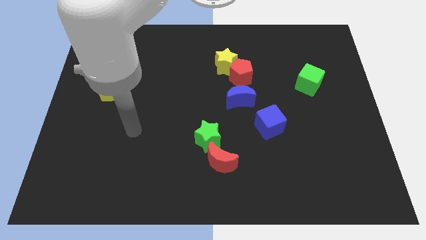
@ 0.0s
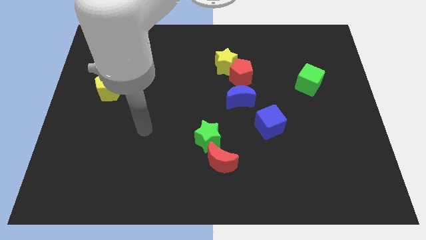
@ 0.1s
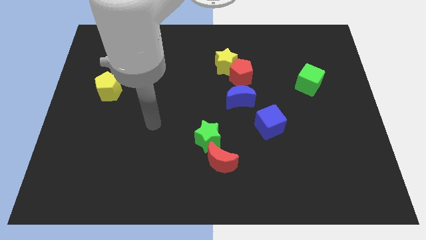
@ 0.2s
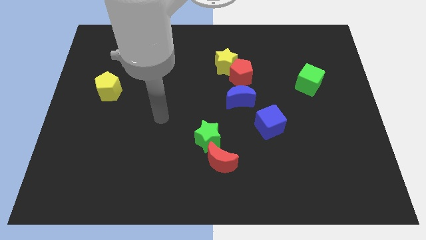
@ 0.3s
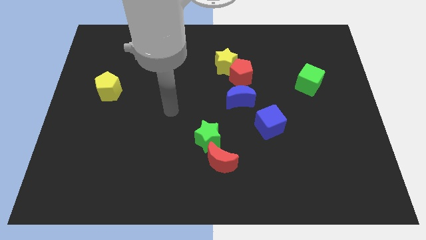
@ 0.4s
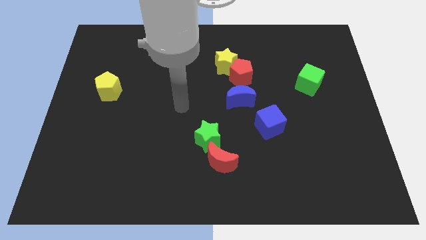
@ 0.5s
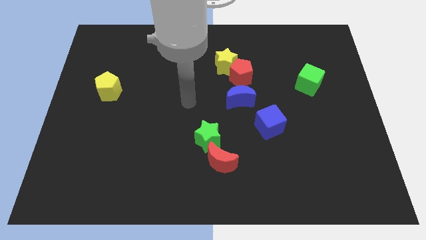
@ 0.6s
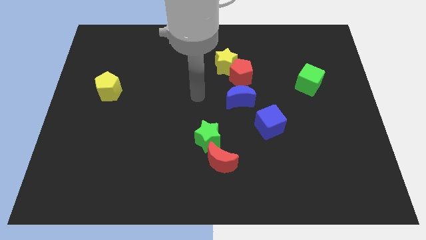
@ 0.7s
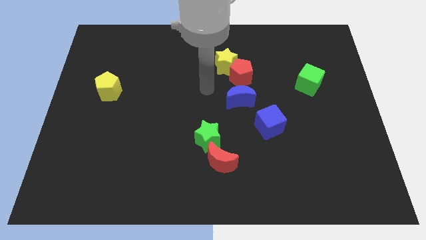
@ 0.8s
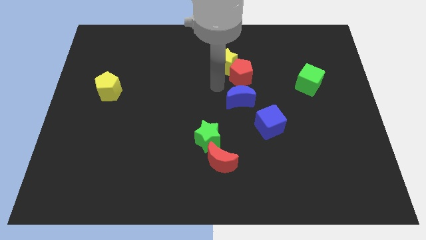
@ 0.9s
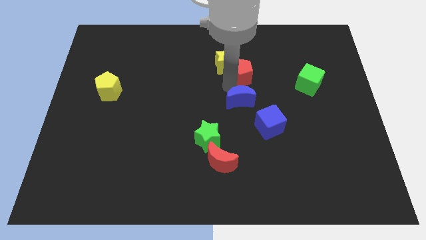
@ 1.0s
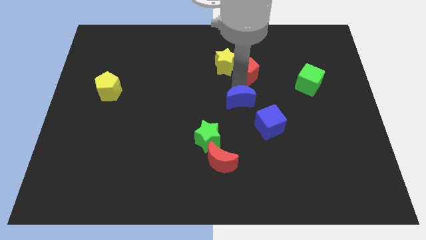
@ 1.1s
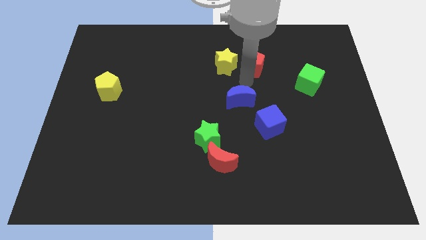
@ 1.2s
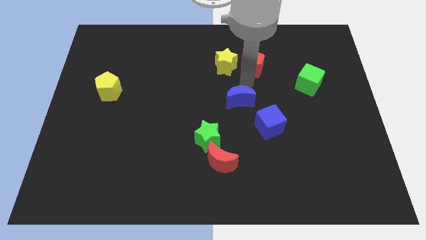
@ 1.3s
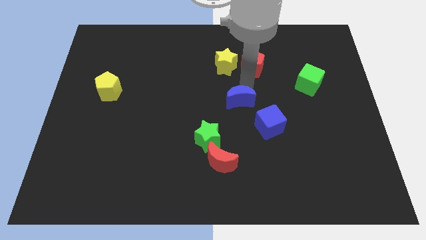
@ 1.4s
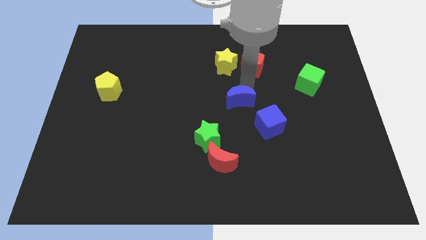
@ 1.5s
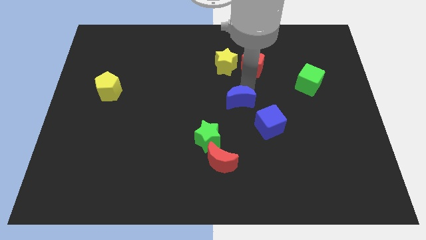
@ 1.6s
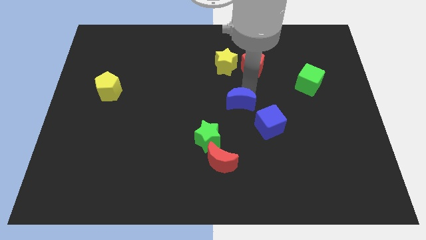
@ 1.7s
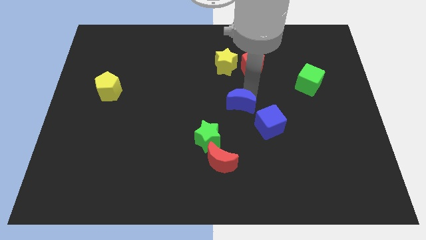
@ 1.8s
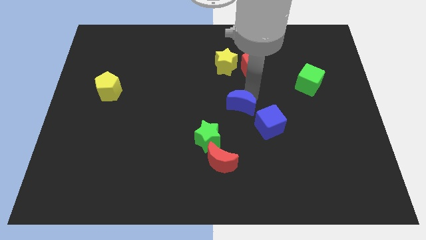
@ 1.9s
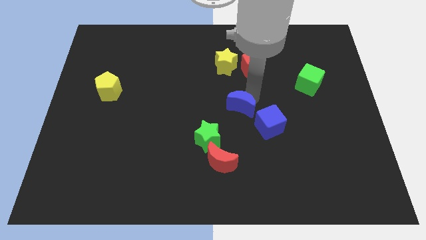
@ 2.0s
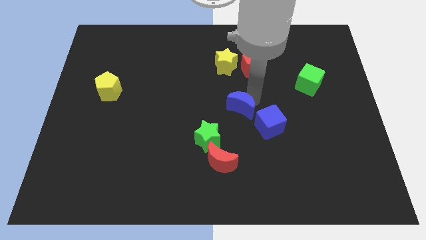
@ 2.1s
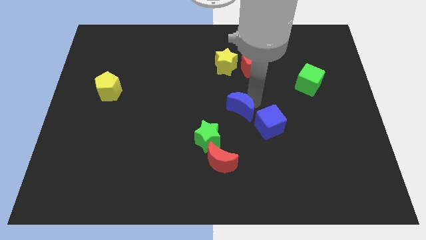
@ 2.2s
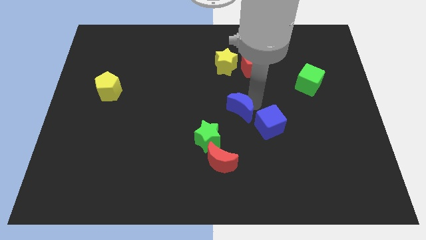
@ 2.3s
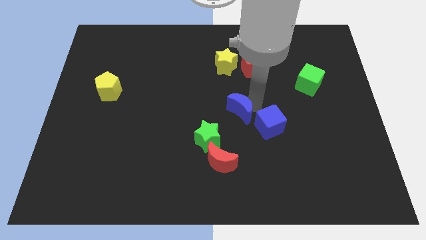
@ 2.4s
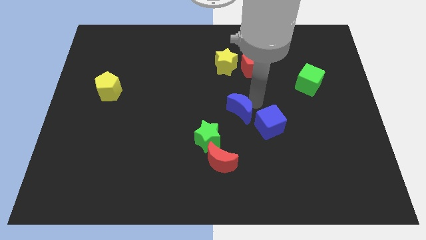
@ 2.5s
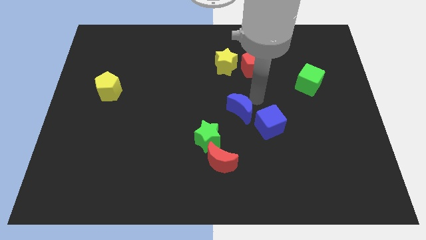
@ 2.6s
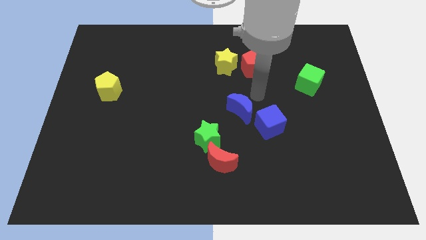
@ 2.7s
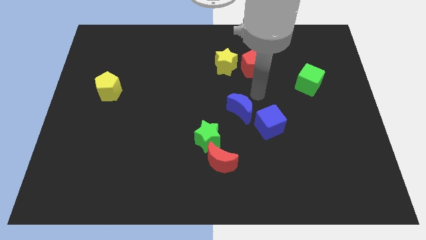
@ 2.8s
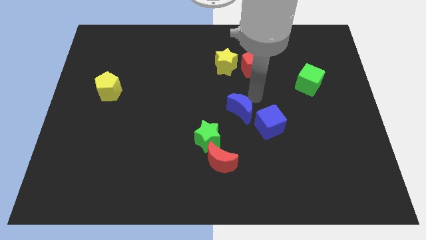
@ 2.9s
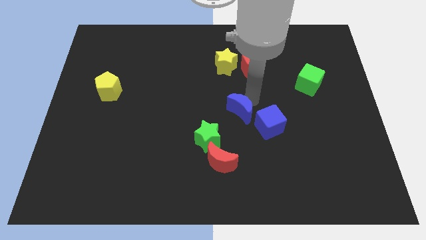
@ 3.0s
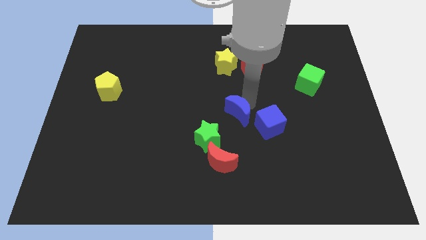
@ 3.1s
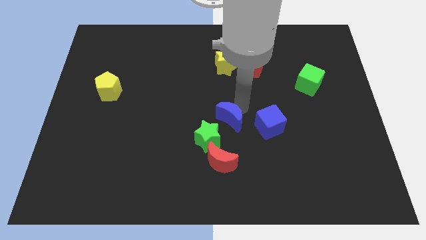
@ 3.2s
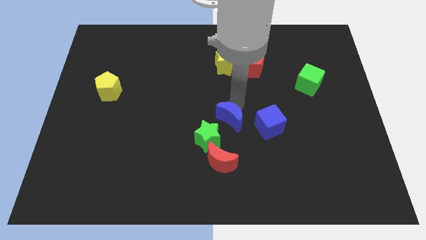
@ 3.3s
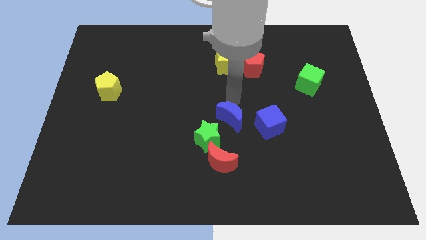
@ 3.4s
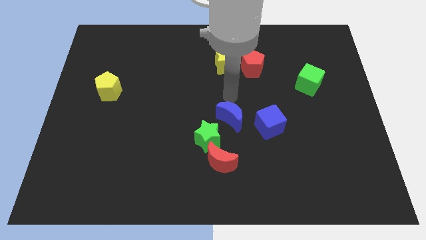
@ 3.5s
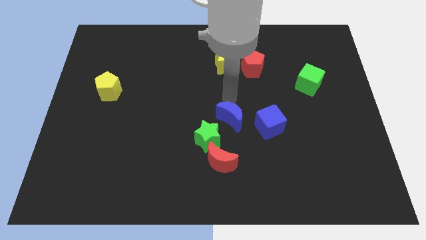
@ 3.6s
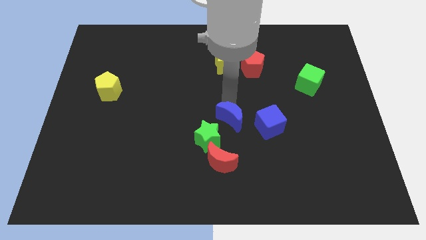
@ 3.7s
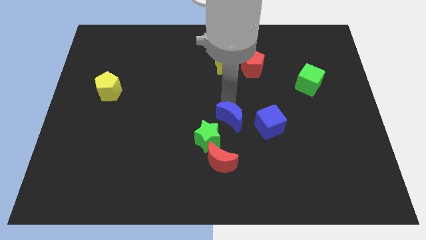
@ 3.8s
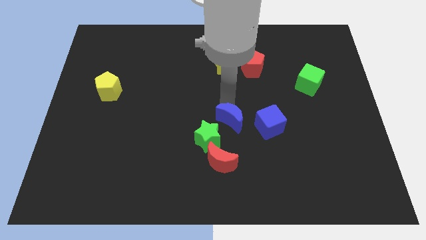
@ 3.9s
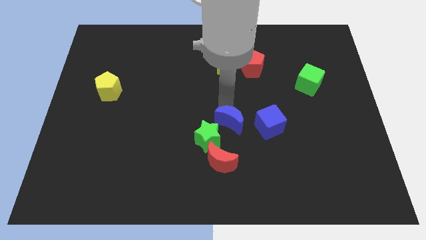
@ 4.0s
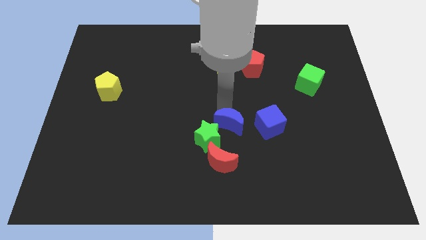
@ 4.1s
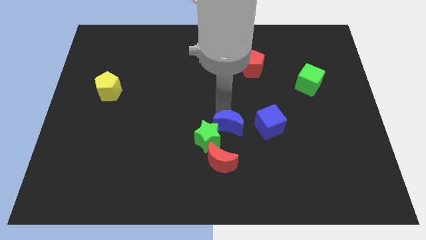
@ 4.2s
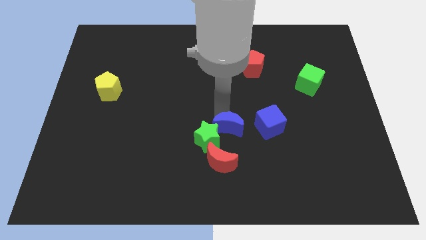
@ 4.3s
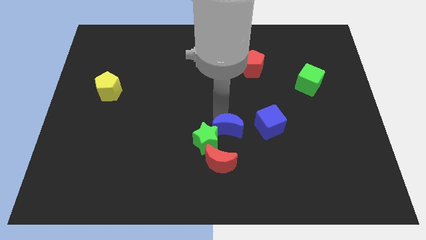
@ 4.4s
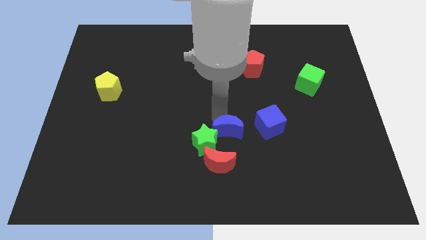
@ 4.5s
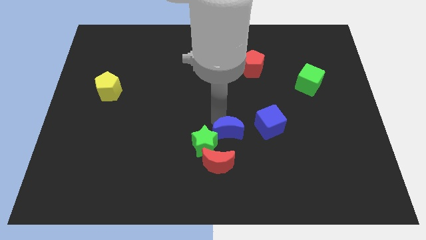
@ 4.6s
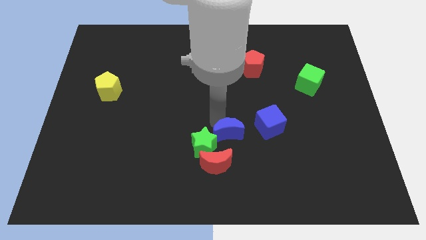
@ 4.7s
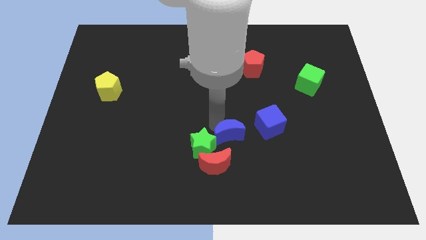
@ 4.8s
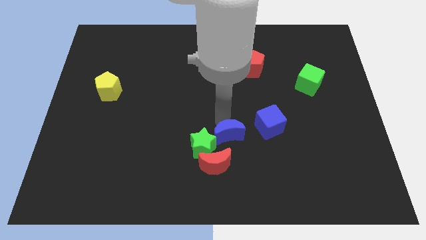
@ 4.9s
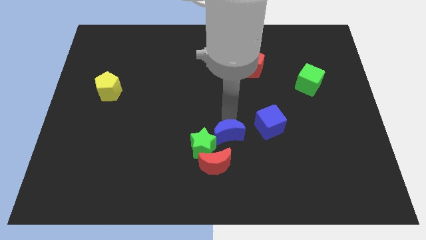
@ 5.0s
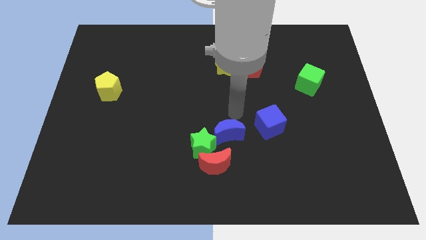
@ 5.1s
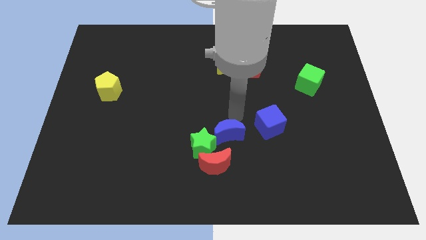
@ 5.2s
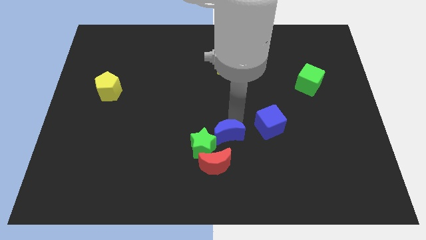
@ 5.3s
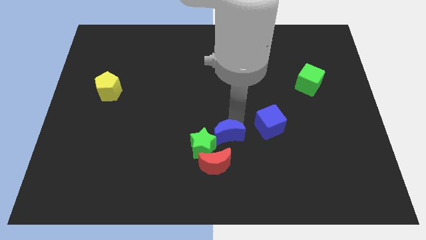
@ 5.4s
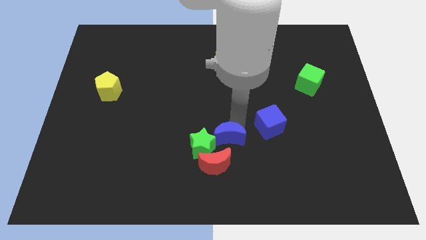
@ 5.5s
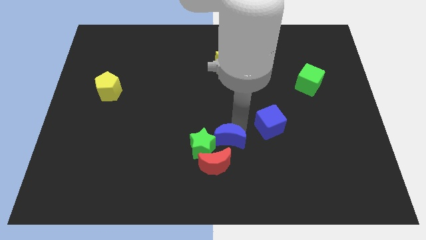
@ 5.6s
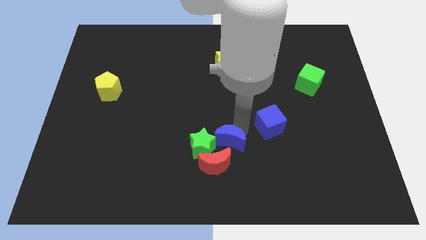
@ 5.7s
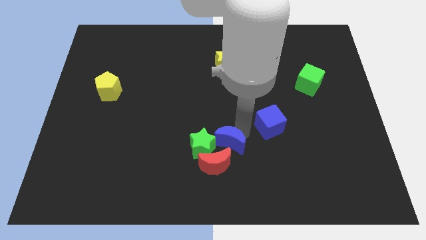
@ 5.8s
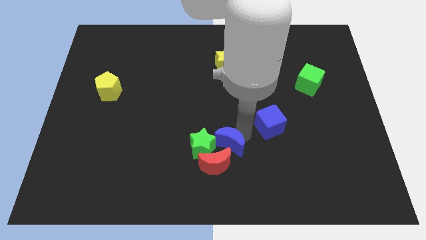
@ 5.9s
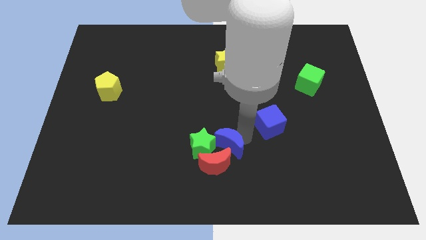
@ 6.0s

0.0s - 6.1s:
put the blue moon close to the red moon
